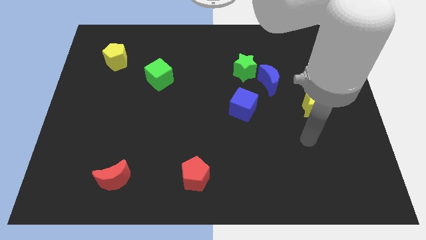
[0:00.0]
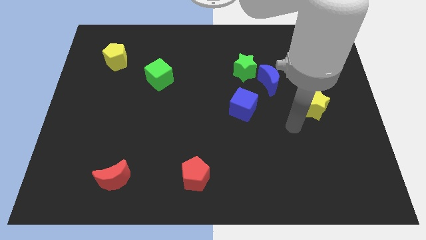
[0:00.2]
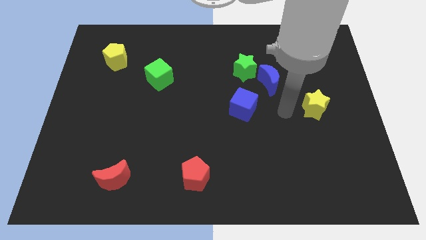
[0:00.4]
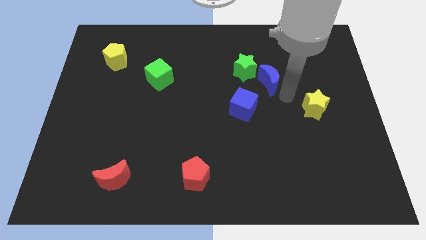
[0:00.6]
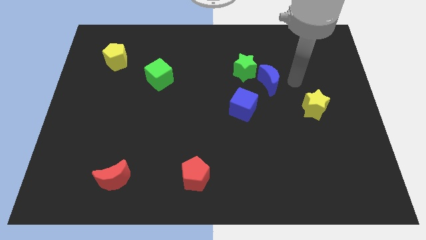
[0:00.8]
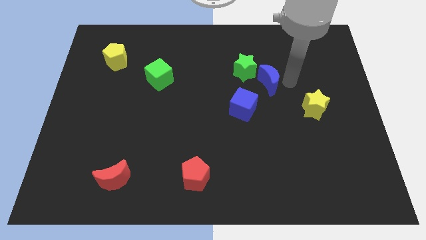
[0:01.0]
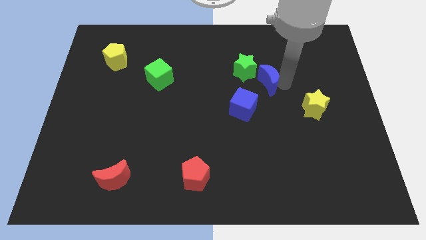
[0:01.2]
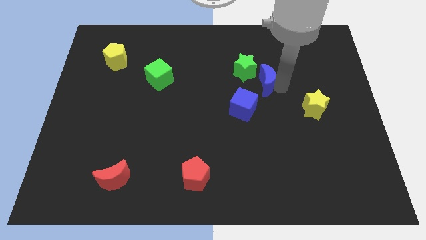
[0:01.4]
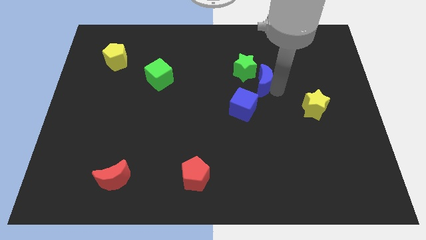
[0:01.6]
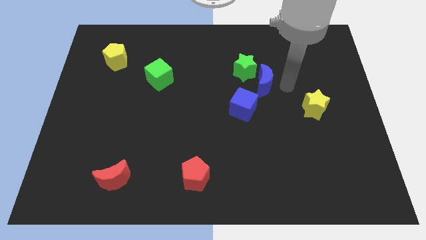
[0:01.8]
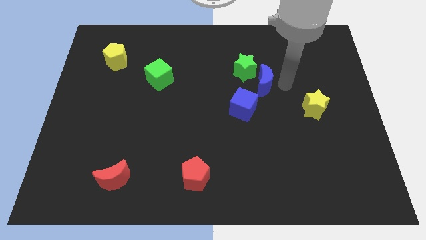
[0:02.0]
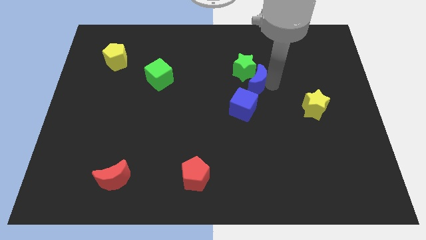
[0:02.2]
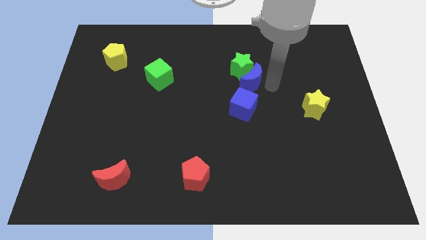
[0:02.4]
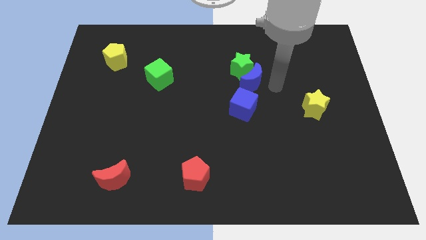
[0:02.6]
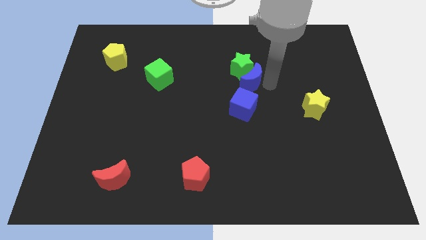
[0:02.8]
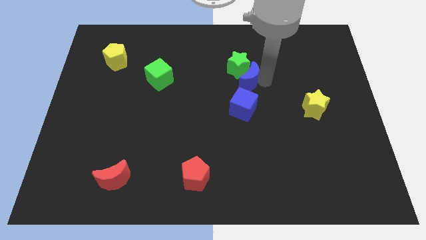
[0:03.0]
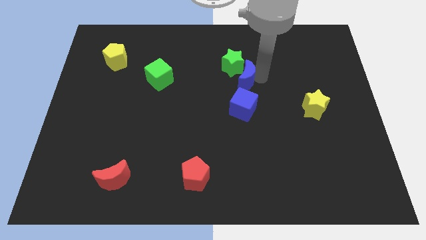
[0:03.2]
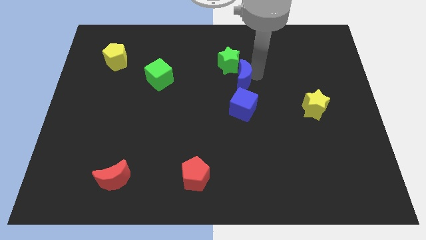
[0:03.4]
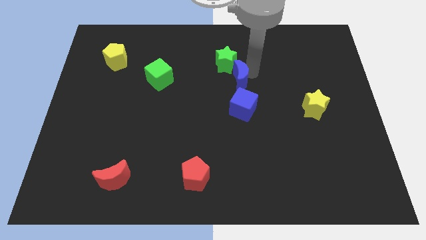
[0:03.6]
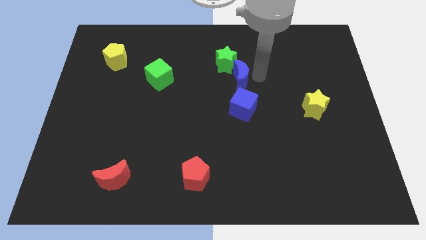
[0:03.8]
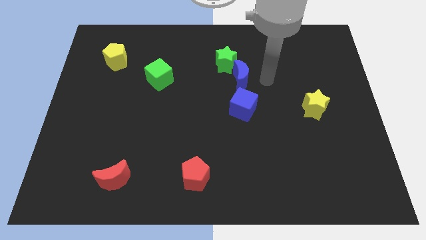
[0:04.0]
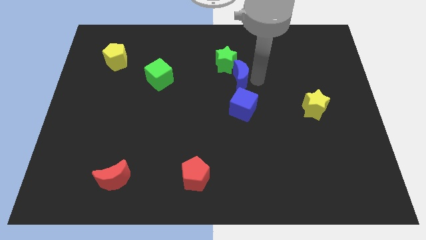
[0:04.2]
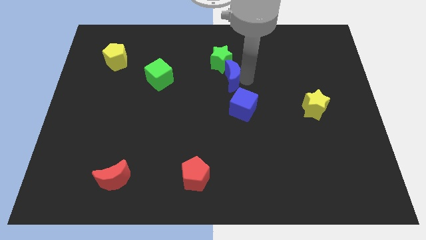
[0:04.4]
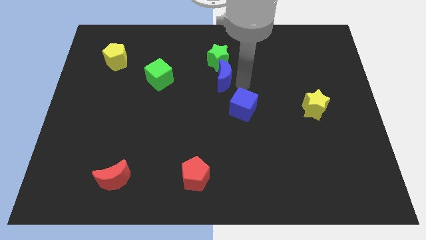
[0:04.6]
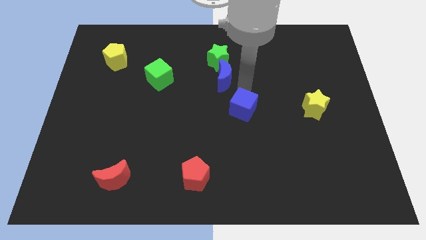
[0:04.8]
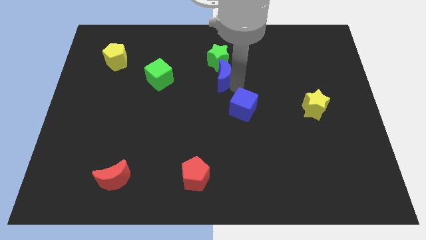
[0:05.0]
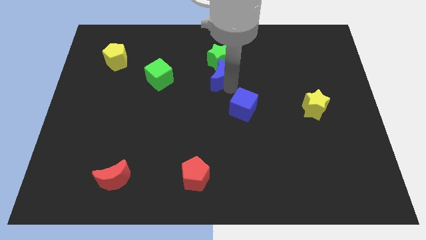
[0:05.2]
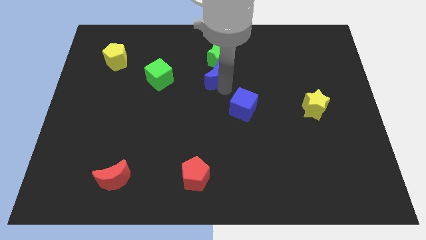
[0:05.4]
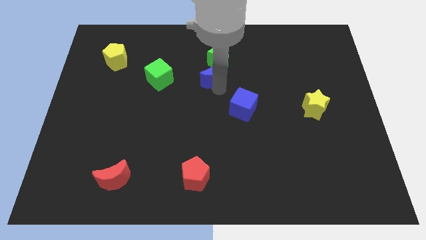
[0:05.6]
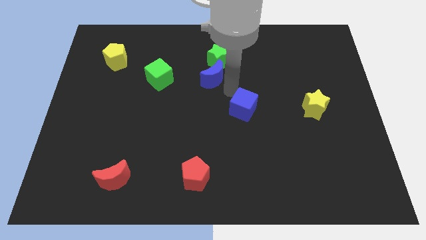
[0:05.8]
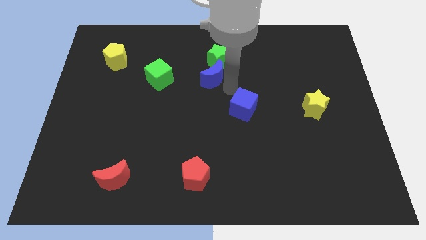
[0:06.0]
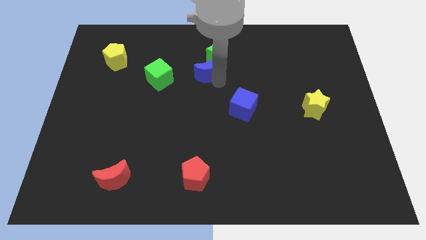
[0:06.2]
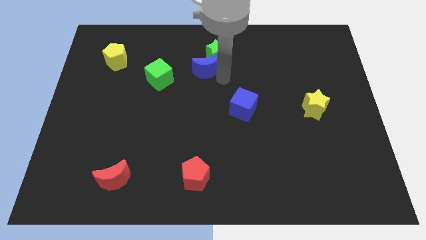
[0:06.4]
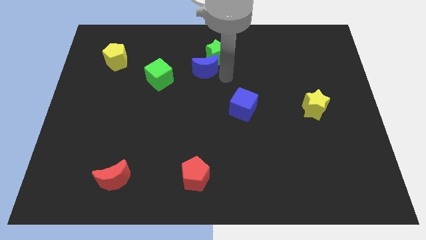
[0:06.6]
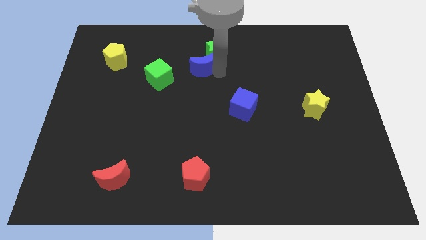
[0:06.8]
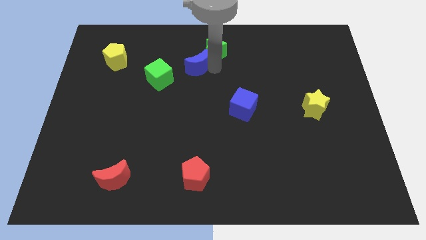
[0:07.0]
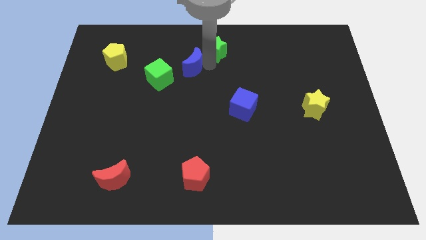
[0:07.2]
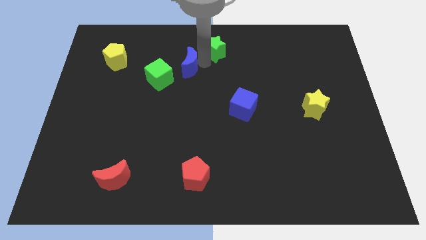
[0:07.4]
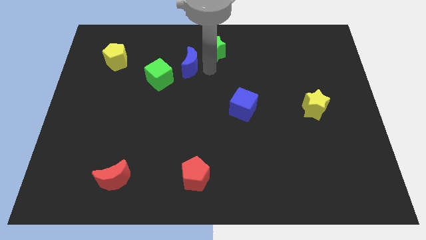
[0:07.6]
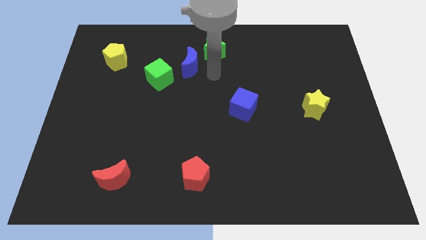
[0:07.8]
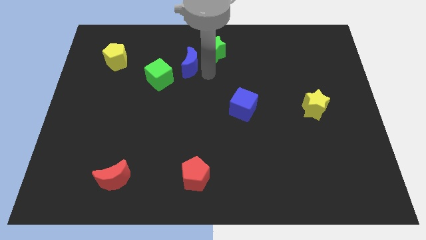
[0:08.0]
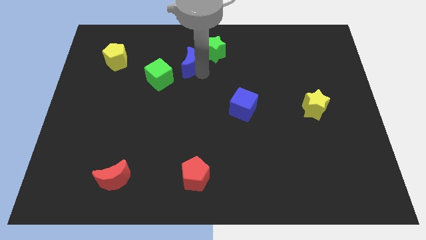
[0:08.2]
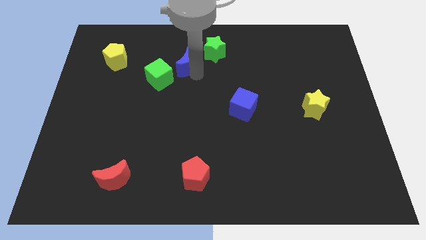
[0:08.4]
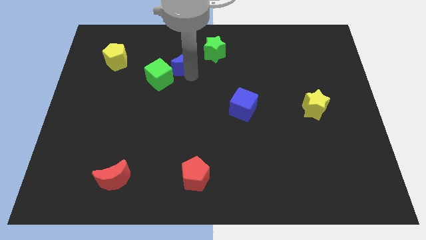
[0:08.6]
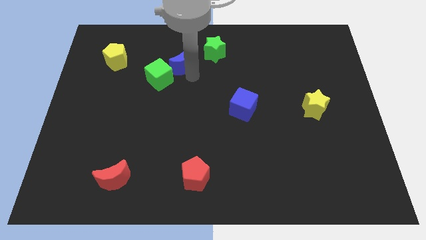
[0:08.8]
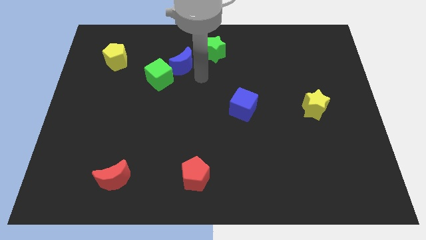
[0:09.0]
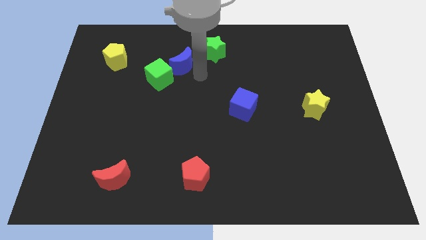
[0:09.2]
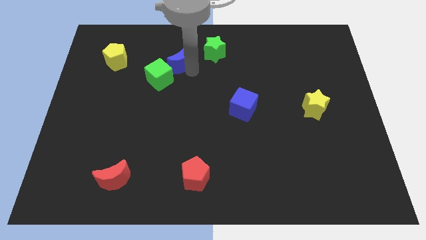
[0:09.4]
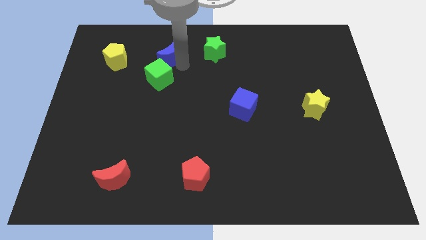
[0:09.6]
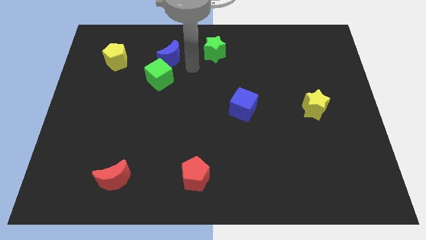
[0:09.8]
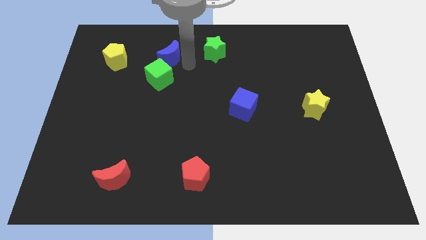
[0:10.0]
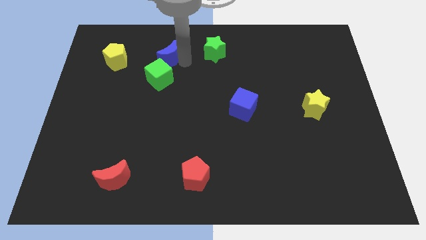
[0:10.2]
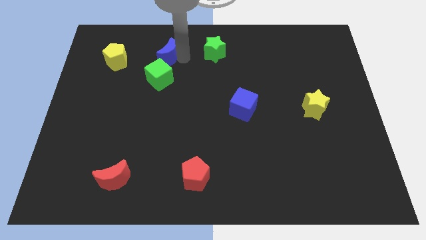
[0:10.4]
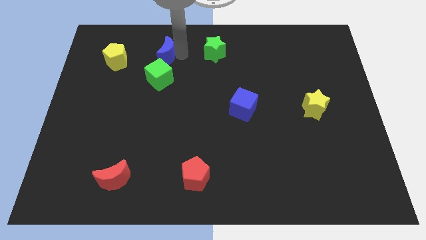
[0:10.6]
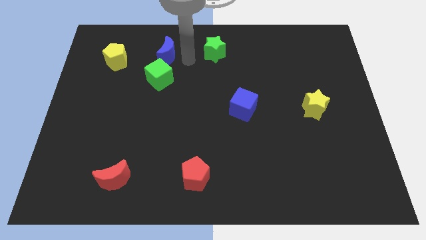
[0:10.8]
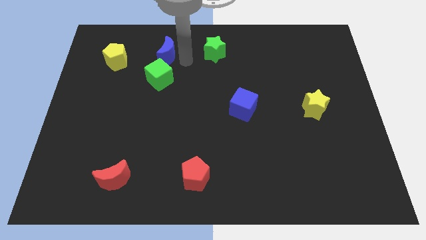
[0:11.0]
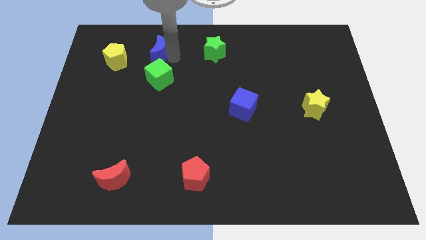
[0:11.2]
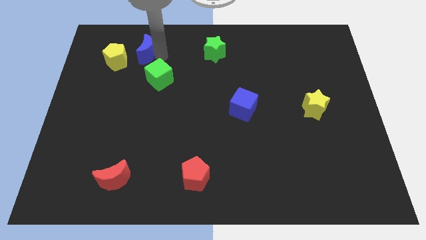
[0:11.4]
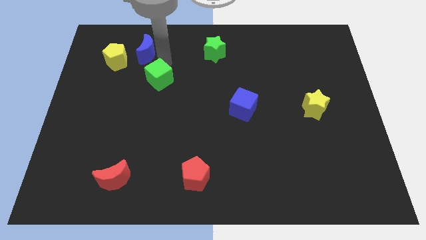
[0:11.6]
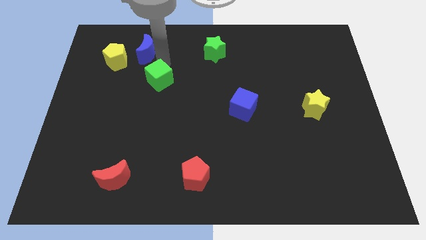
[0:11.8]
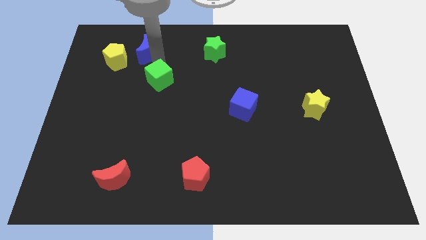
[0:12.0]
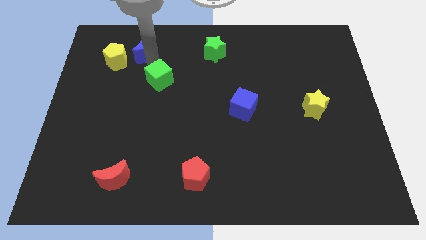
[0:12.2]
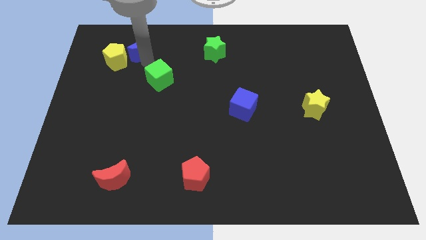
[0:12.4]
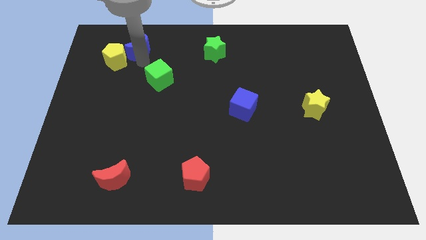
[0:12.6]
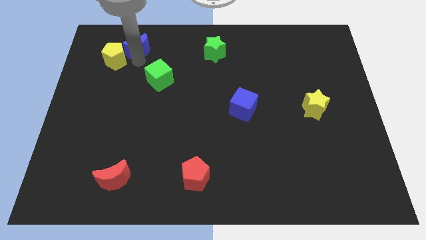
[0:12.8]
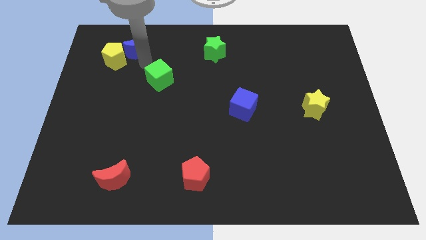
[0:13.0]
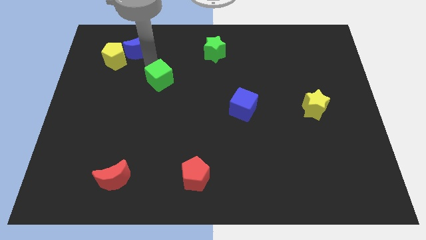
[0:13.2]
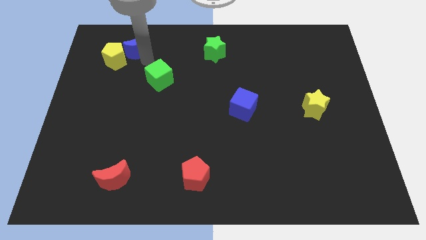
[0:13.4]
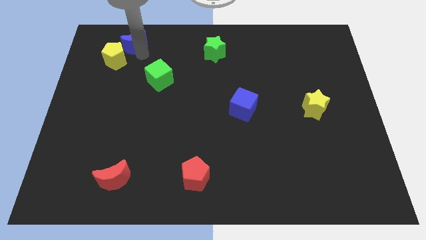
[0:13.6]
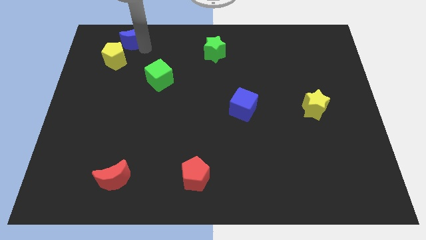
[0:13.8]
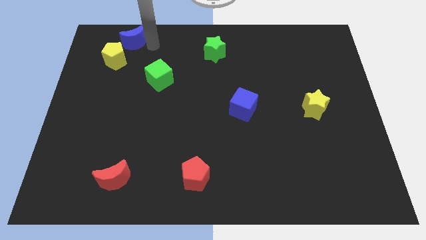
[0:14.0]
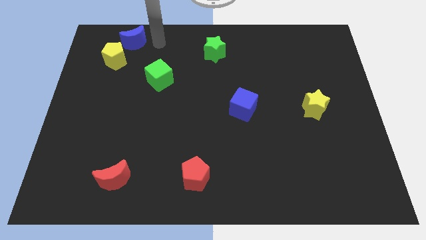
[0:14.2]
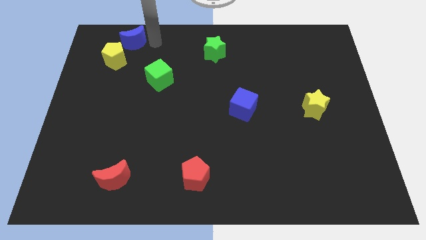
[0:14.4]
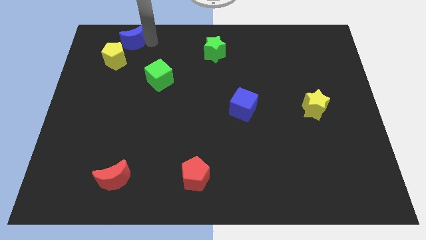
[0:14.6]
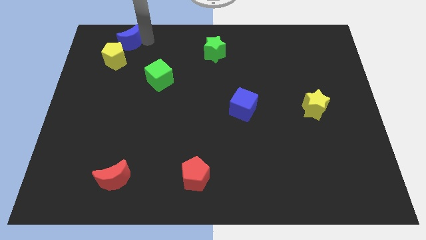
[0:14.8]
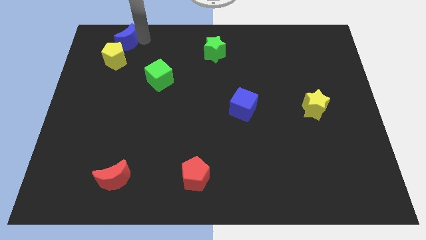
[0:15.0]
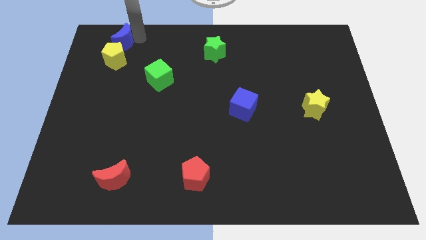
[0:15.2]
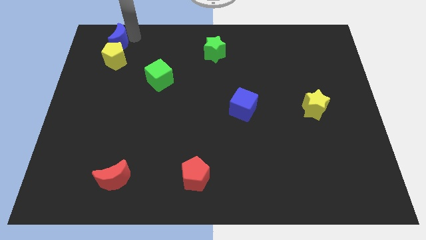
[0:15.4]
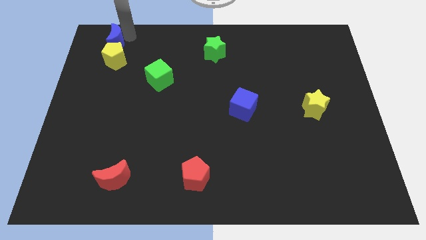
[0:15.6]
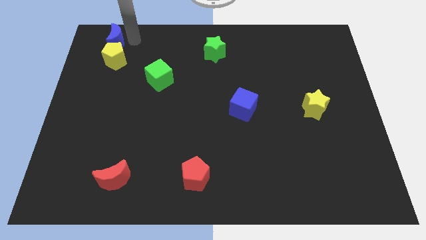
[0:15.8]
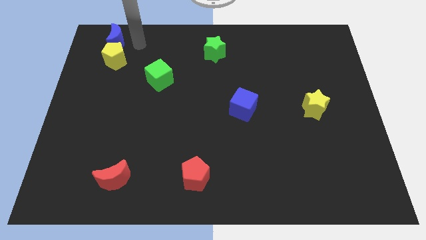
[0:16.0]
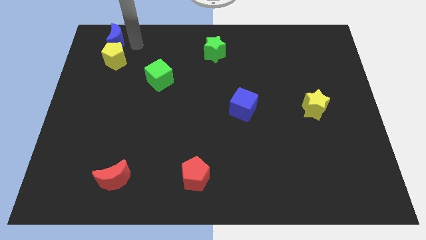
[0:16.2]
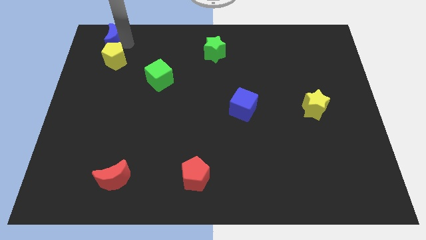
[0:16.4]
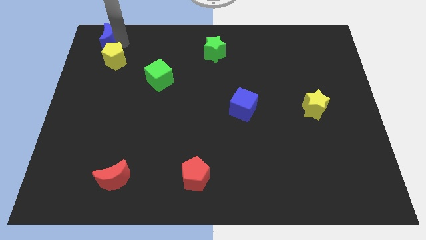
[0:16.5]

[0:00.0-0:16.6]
put the blue moon to the upper left corner
